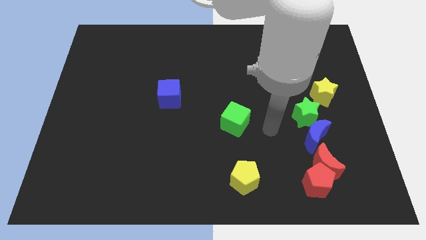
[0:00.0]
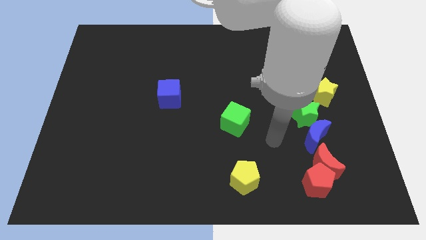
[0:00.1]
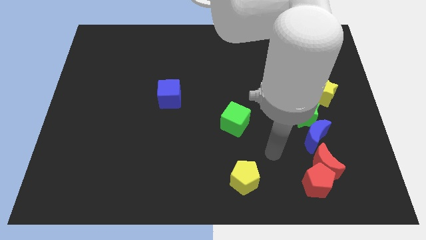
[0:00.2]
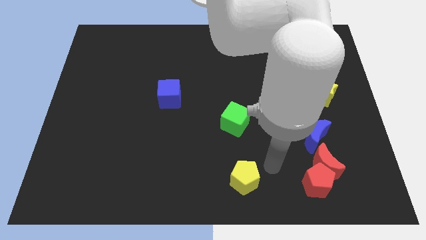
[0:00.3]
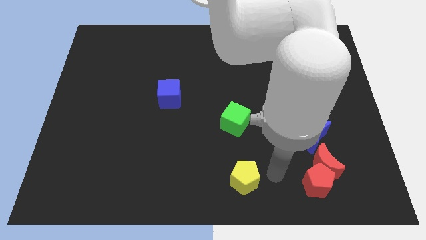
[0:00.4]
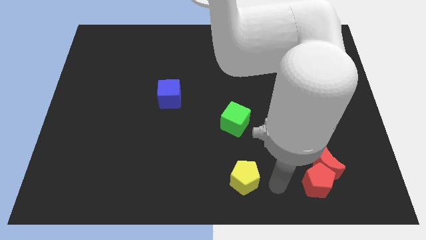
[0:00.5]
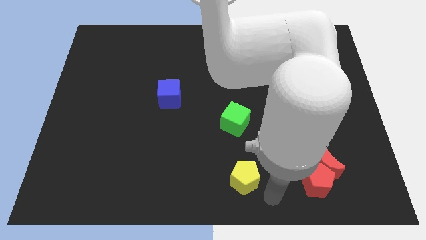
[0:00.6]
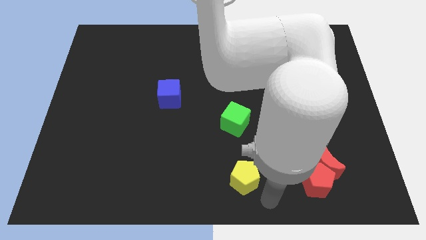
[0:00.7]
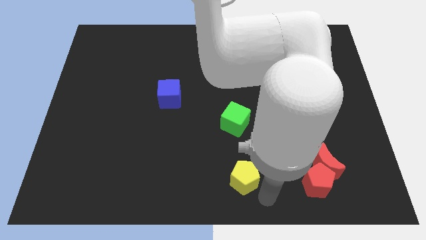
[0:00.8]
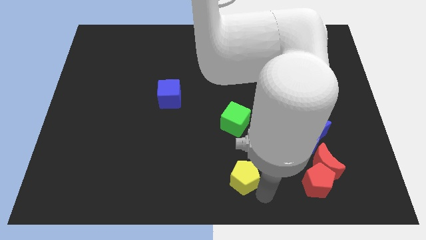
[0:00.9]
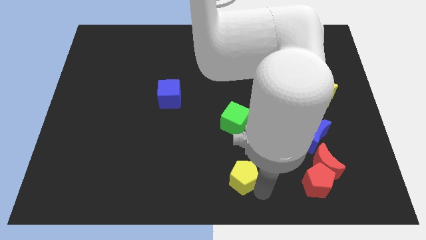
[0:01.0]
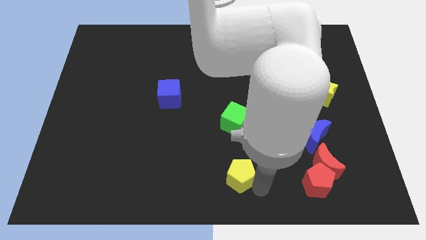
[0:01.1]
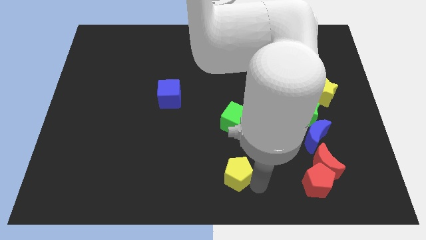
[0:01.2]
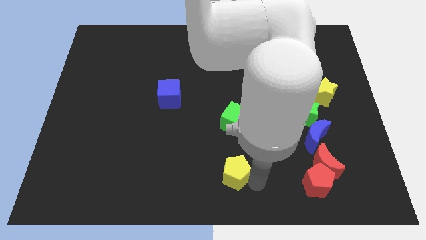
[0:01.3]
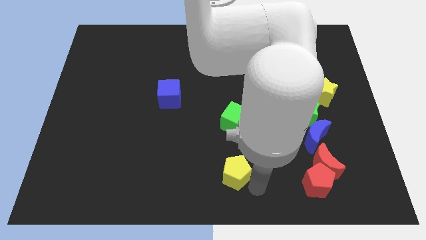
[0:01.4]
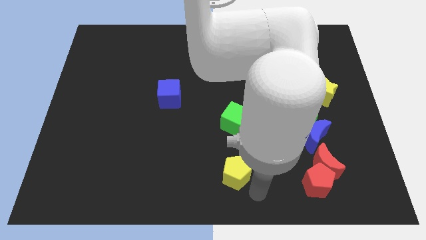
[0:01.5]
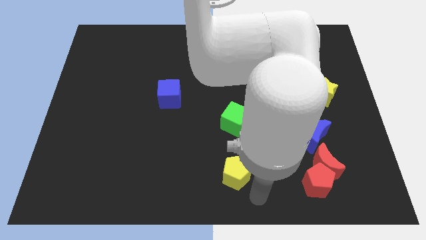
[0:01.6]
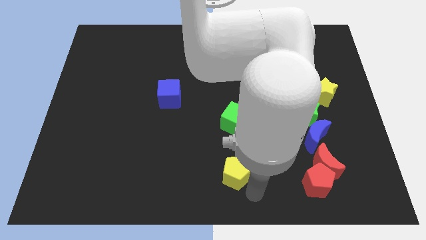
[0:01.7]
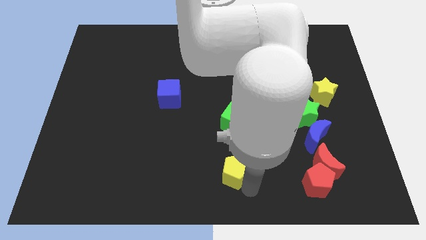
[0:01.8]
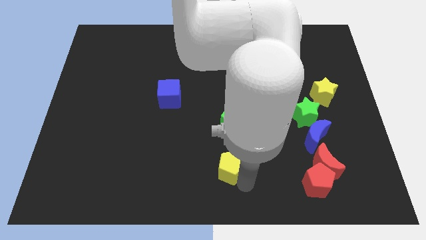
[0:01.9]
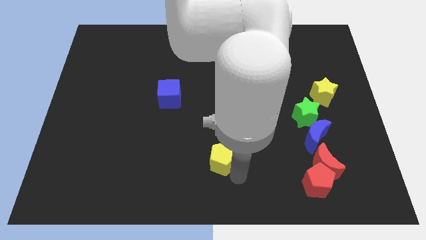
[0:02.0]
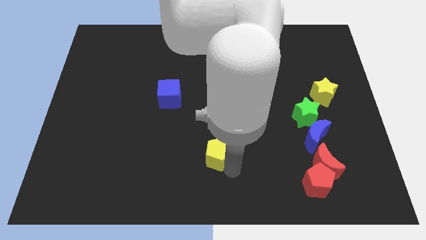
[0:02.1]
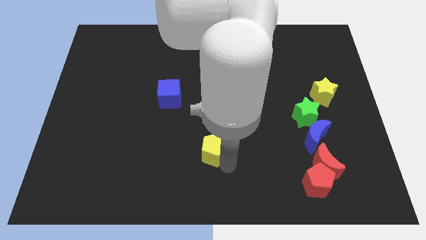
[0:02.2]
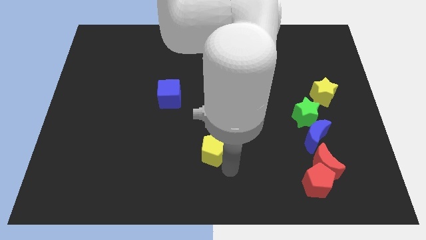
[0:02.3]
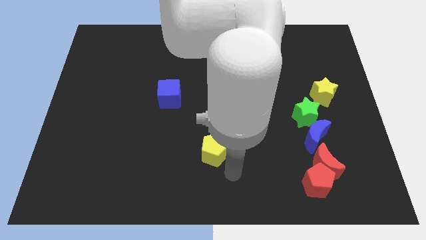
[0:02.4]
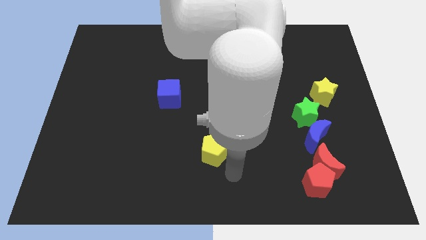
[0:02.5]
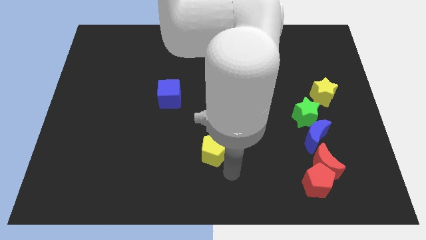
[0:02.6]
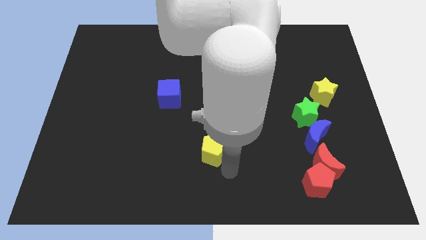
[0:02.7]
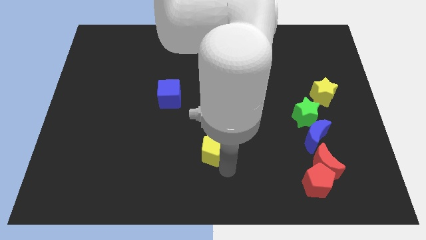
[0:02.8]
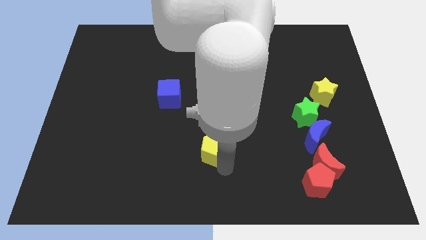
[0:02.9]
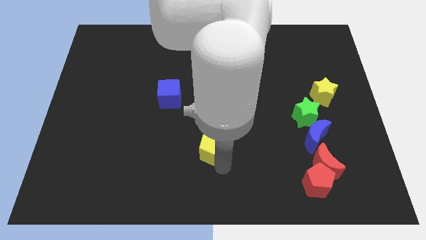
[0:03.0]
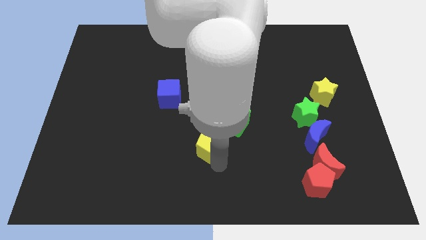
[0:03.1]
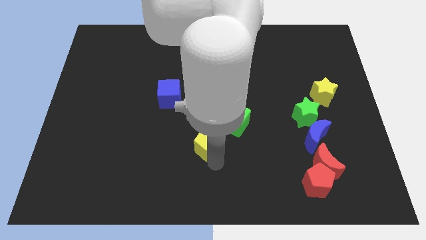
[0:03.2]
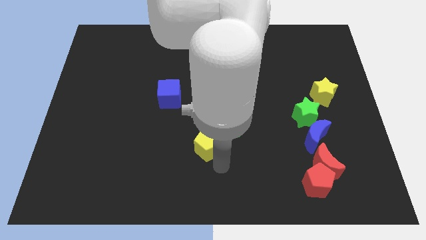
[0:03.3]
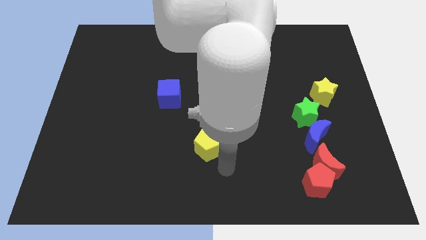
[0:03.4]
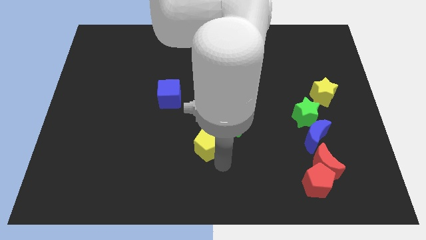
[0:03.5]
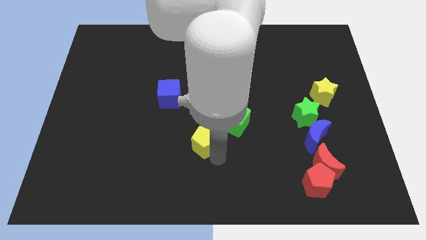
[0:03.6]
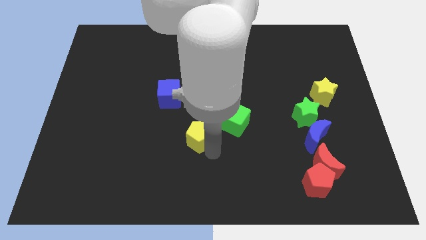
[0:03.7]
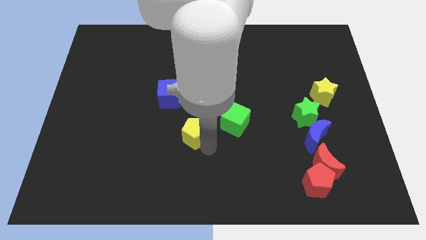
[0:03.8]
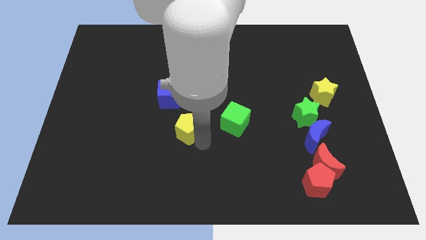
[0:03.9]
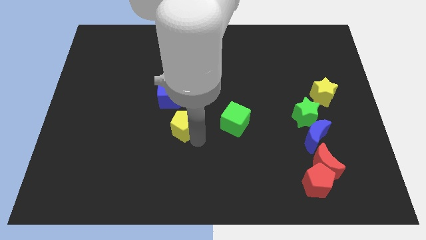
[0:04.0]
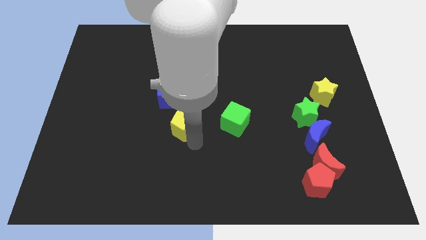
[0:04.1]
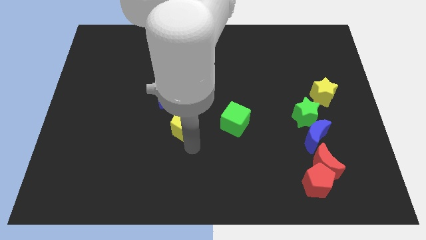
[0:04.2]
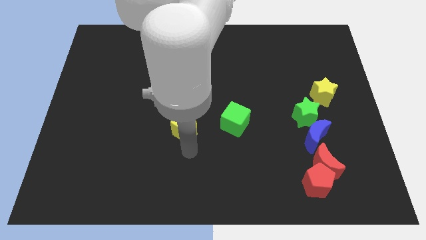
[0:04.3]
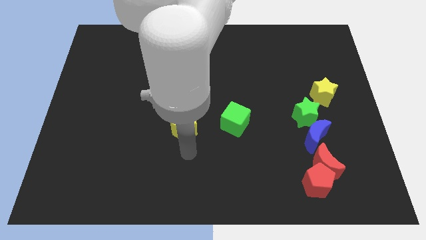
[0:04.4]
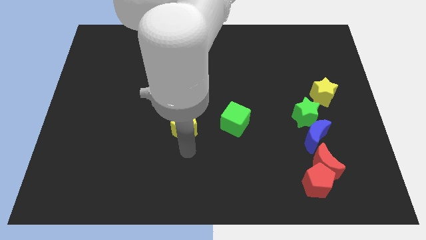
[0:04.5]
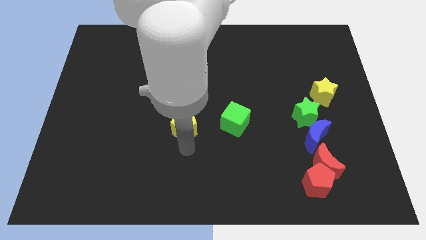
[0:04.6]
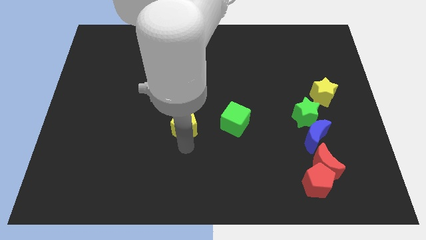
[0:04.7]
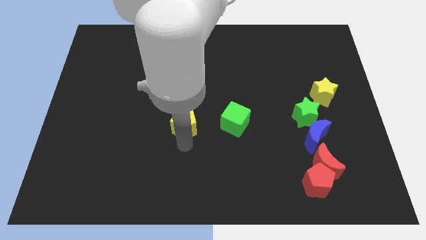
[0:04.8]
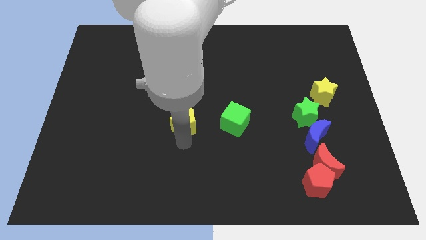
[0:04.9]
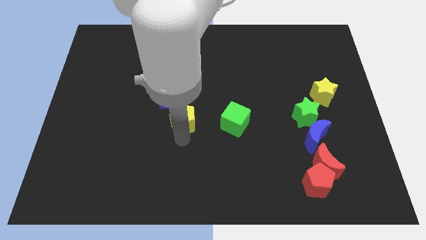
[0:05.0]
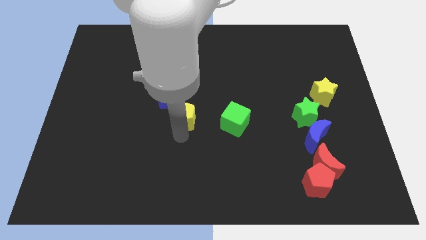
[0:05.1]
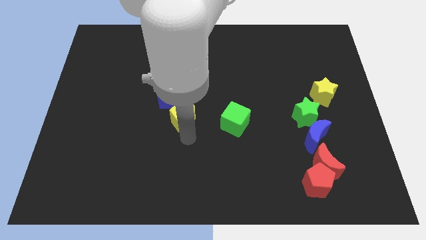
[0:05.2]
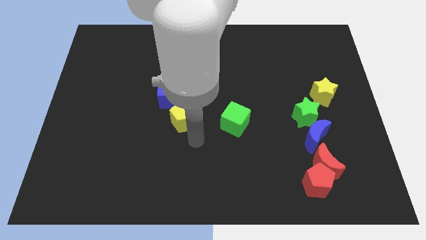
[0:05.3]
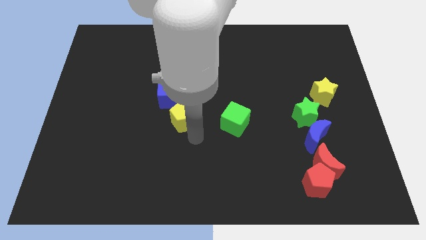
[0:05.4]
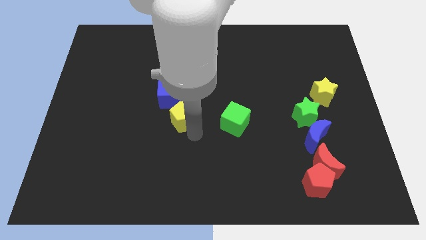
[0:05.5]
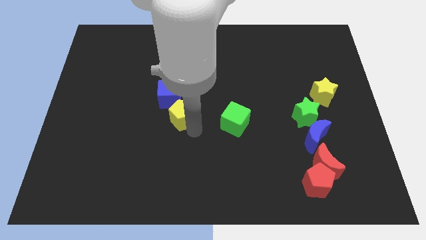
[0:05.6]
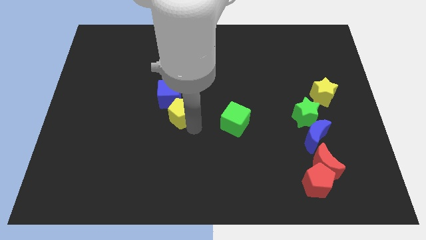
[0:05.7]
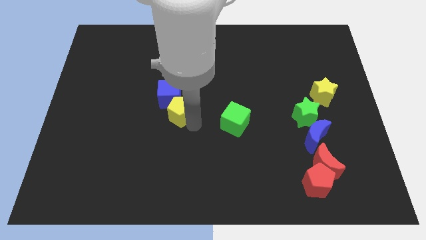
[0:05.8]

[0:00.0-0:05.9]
move the yellow pentagon towards the blue cube

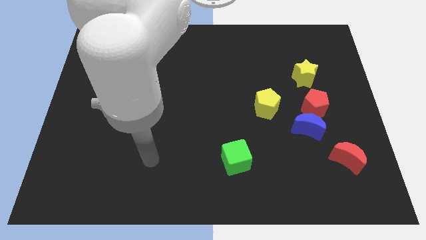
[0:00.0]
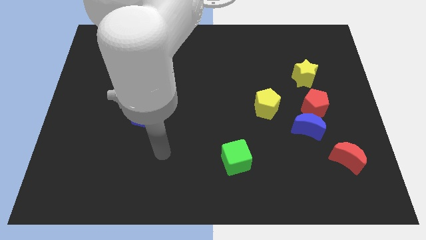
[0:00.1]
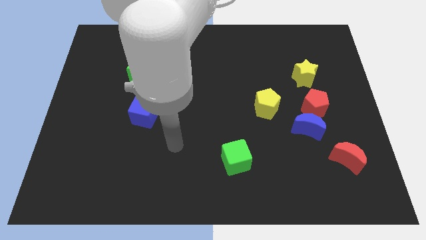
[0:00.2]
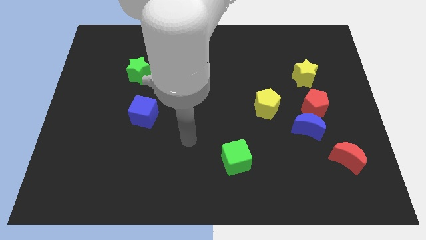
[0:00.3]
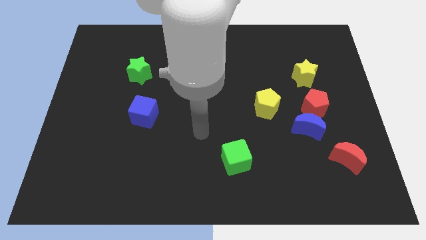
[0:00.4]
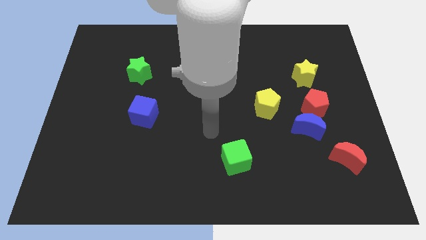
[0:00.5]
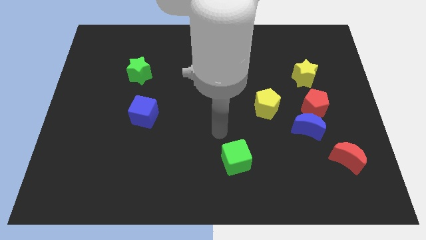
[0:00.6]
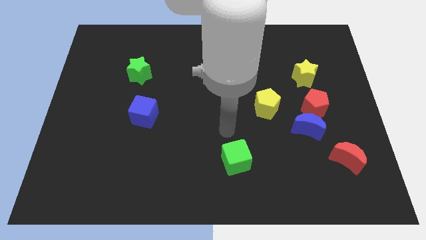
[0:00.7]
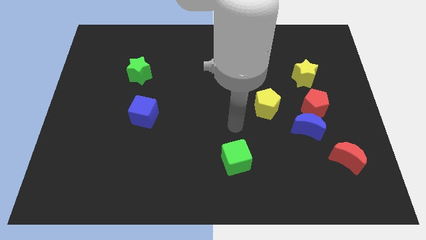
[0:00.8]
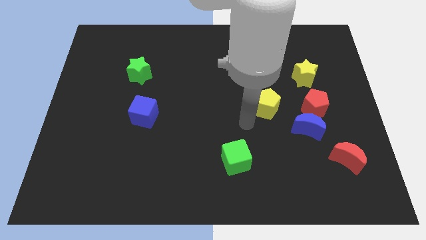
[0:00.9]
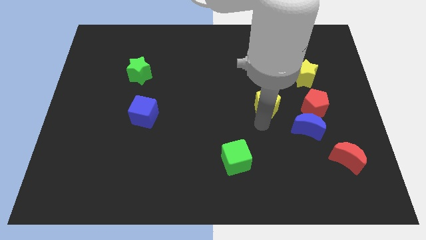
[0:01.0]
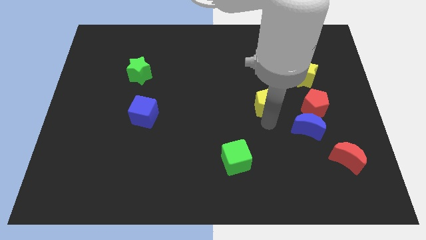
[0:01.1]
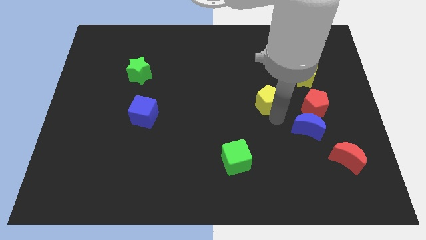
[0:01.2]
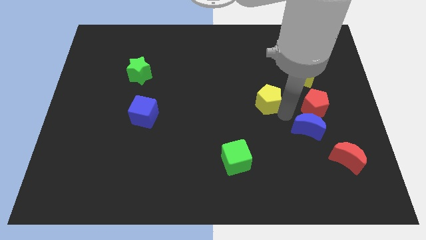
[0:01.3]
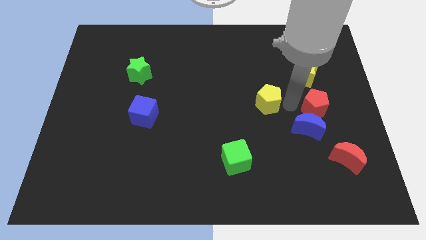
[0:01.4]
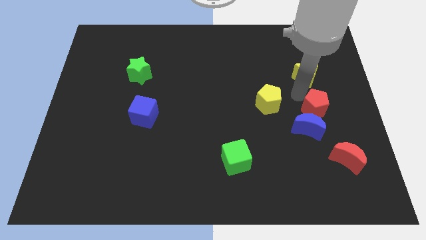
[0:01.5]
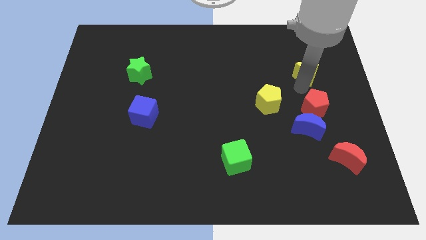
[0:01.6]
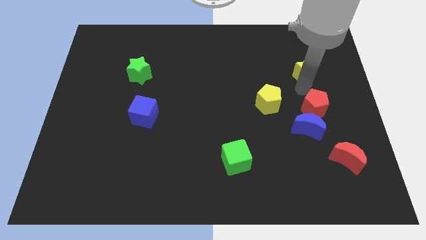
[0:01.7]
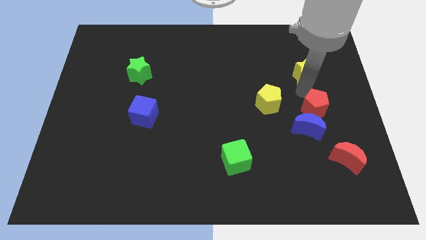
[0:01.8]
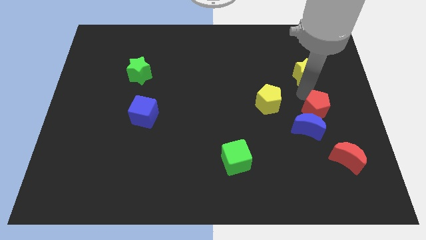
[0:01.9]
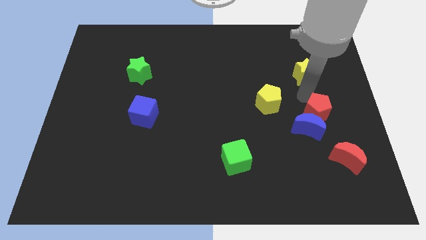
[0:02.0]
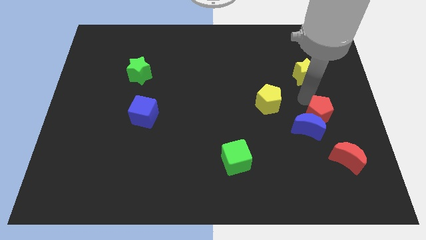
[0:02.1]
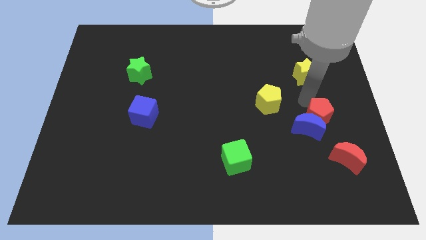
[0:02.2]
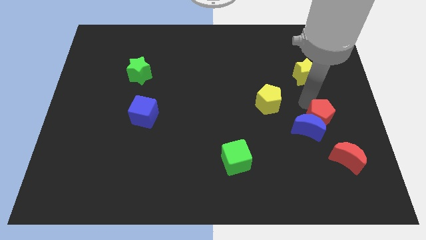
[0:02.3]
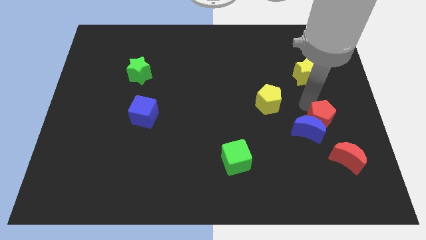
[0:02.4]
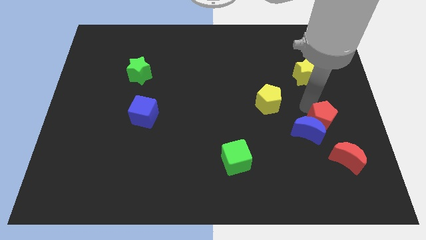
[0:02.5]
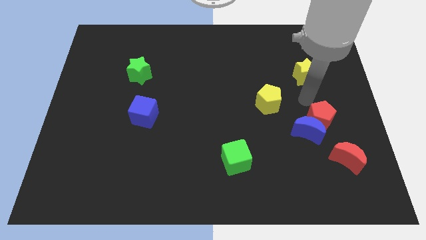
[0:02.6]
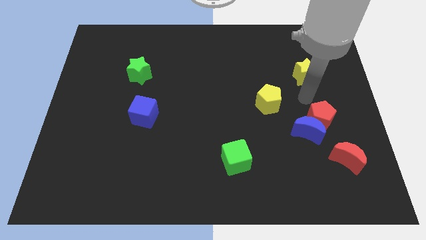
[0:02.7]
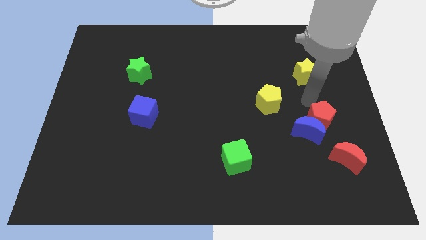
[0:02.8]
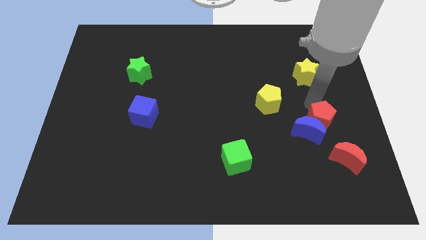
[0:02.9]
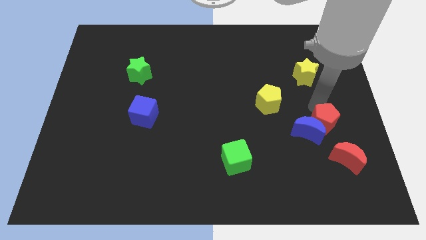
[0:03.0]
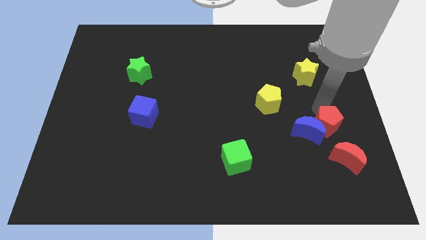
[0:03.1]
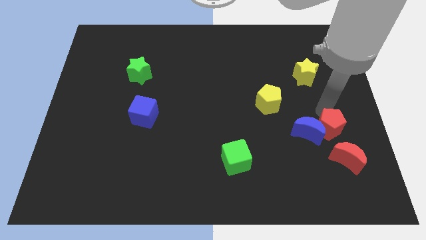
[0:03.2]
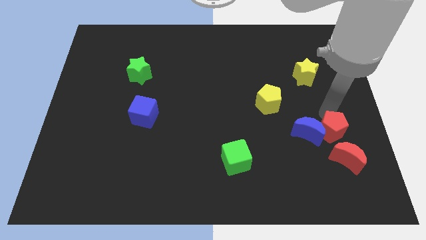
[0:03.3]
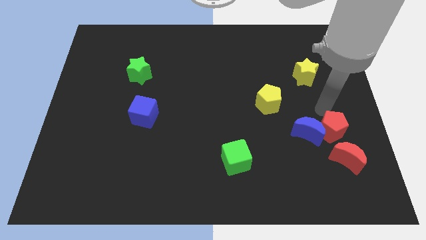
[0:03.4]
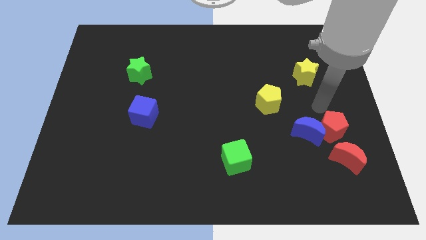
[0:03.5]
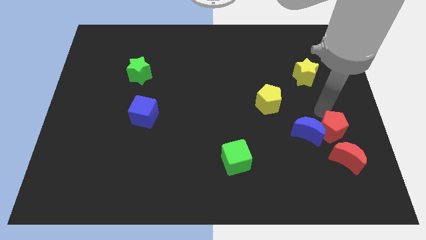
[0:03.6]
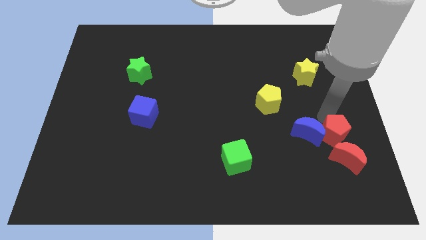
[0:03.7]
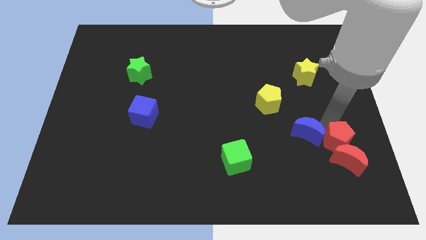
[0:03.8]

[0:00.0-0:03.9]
move the red pentagon to the red moon
